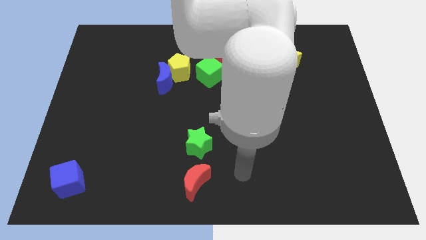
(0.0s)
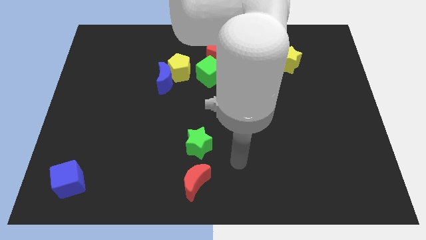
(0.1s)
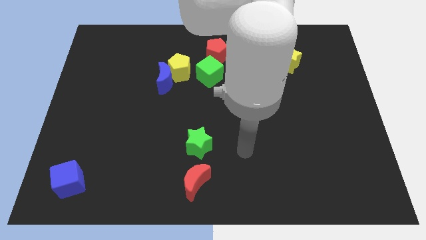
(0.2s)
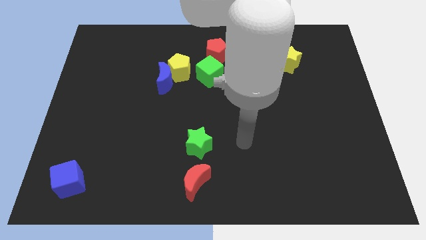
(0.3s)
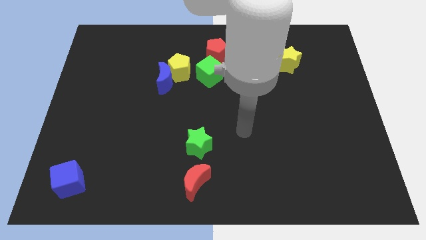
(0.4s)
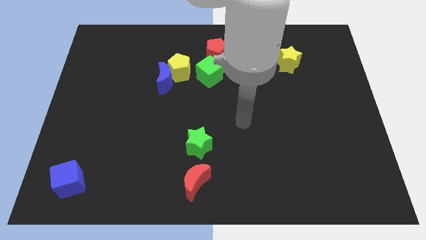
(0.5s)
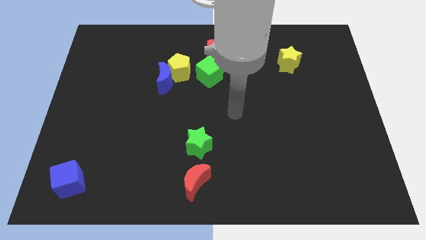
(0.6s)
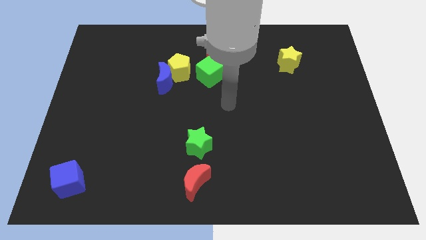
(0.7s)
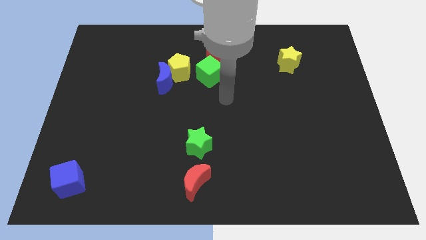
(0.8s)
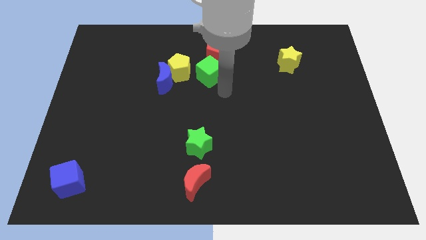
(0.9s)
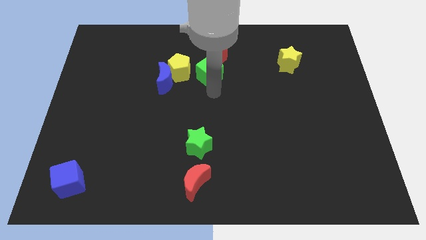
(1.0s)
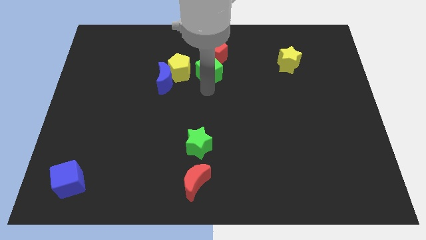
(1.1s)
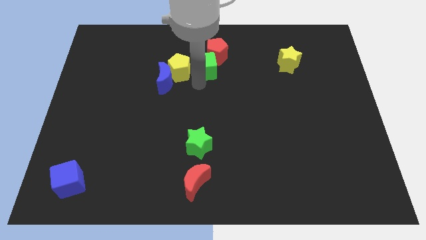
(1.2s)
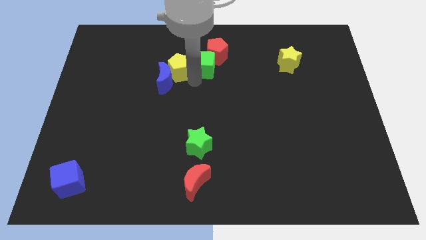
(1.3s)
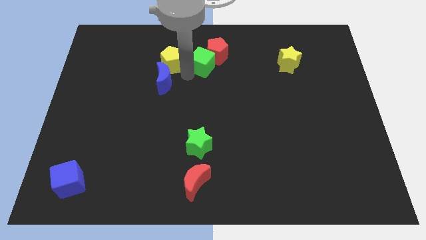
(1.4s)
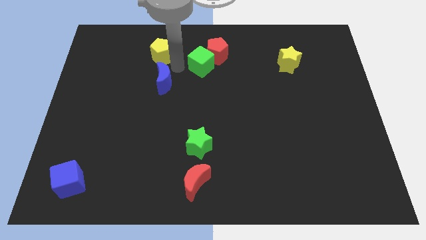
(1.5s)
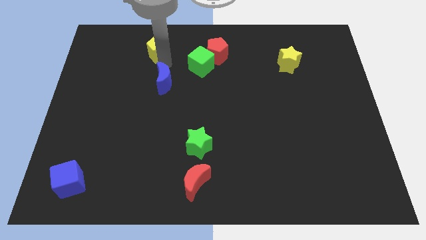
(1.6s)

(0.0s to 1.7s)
separate the blue moon from the yellow pentagon

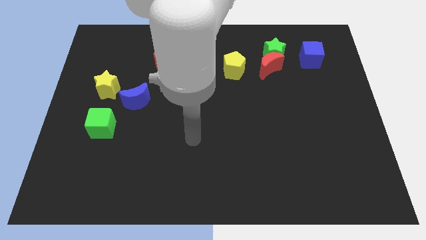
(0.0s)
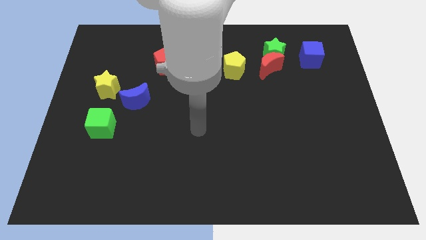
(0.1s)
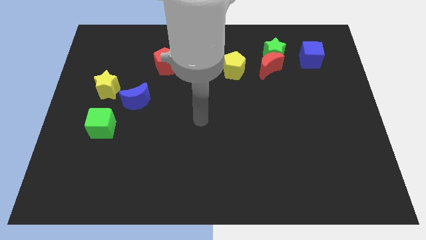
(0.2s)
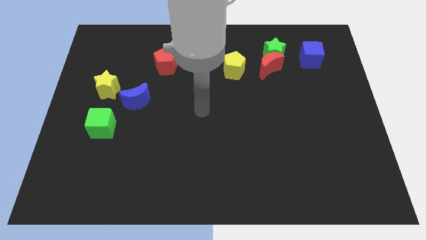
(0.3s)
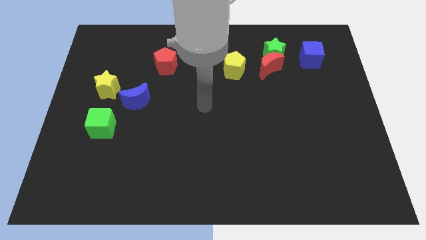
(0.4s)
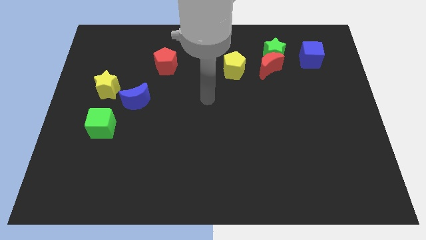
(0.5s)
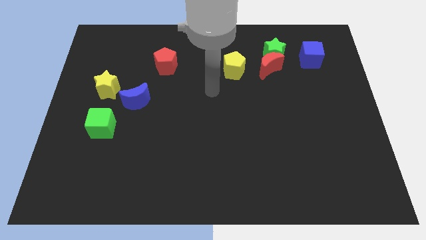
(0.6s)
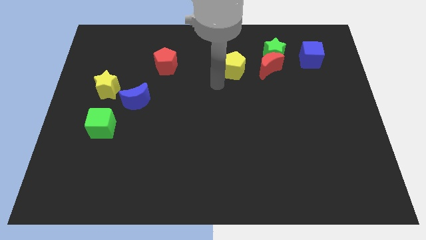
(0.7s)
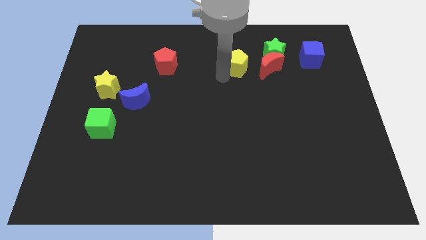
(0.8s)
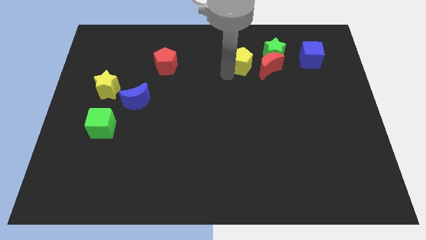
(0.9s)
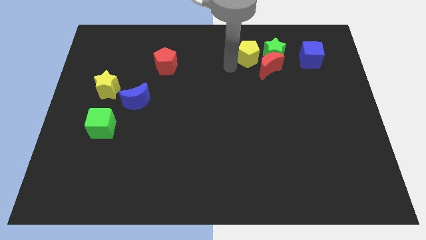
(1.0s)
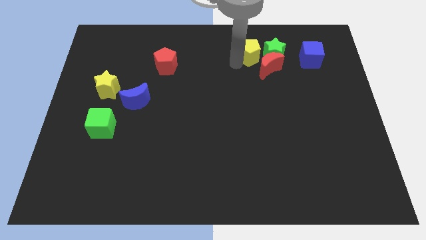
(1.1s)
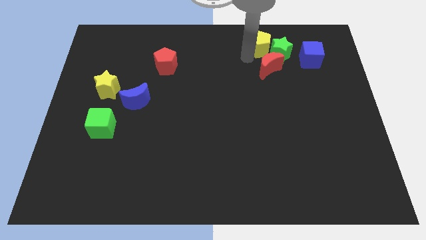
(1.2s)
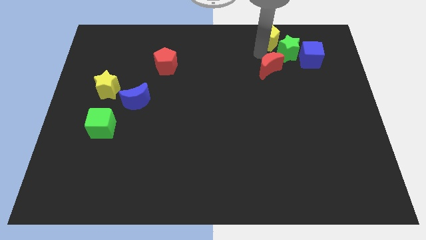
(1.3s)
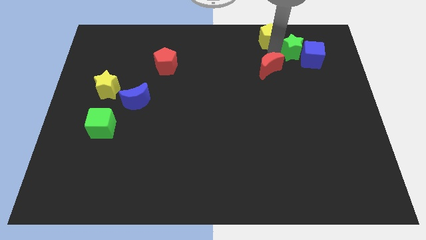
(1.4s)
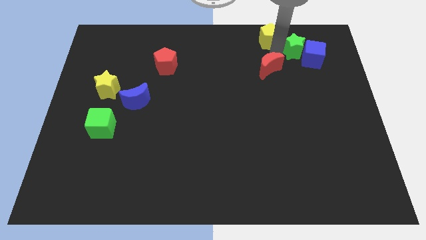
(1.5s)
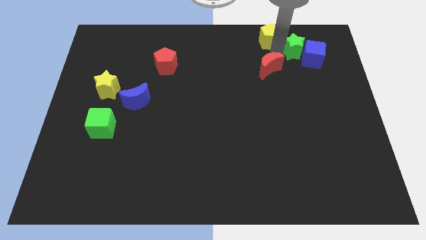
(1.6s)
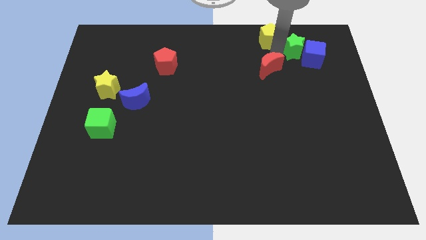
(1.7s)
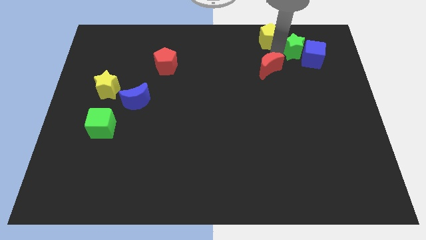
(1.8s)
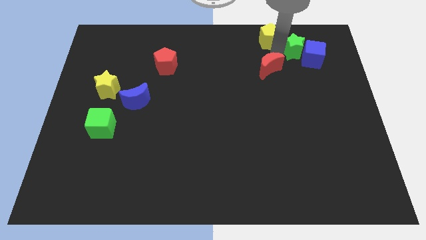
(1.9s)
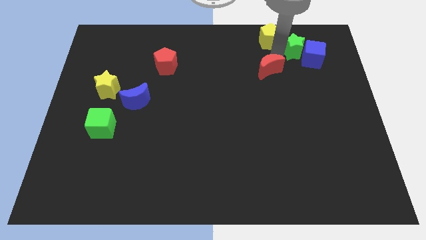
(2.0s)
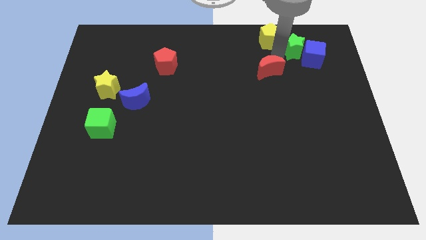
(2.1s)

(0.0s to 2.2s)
separate the red moon from the green star and yellow pentagon

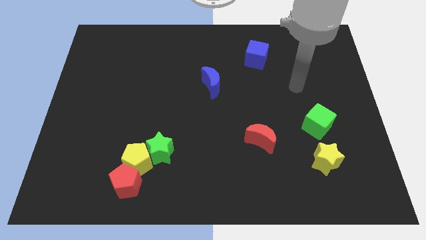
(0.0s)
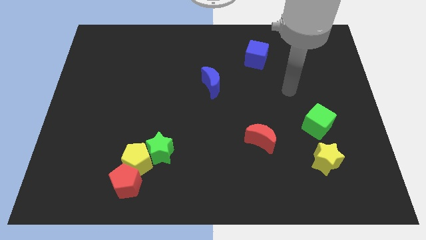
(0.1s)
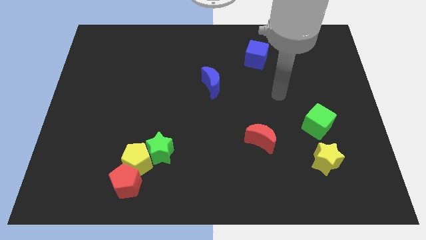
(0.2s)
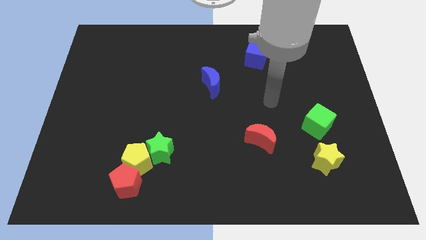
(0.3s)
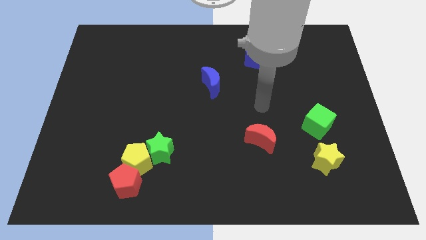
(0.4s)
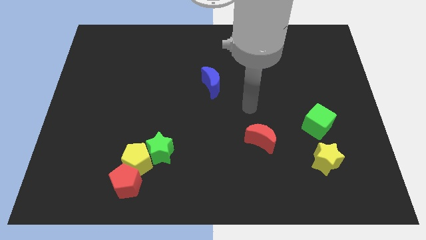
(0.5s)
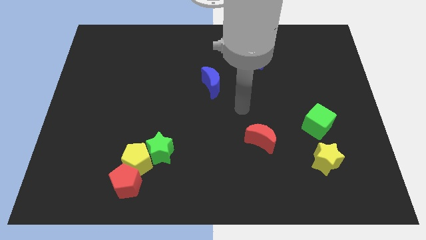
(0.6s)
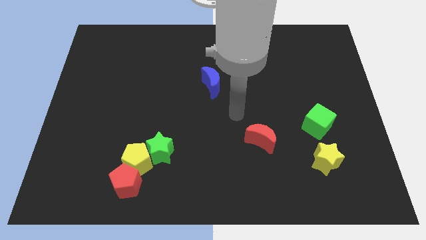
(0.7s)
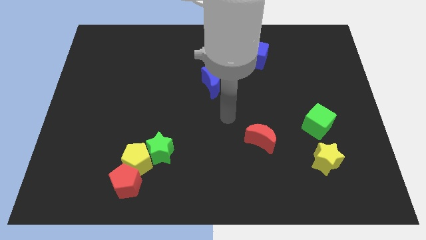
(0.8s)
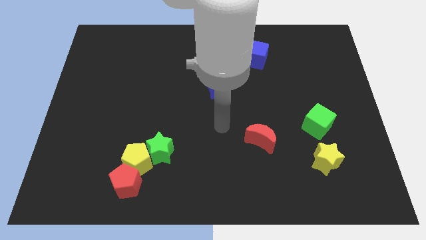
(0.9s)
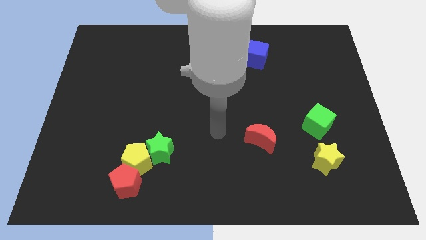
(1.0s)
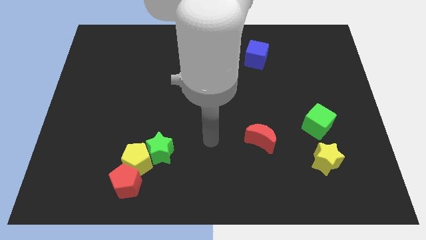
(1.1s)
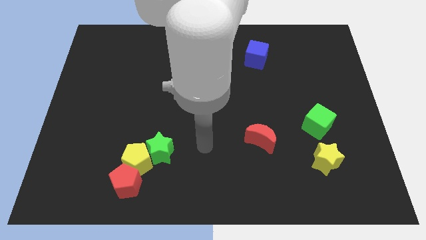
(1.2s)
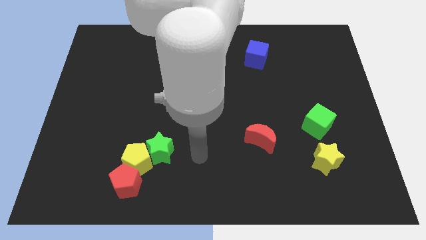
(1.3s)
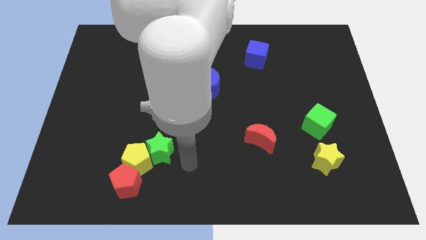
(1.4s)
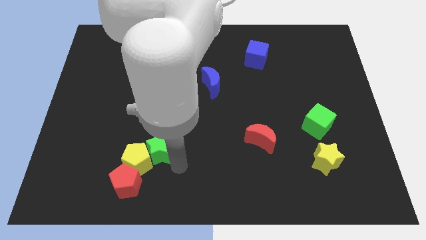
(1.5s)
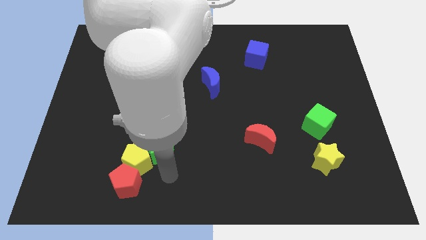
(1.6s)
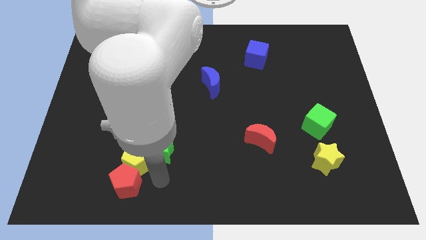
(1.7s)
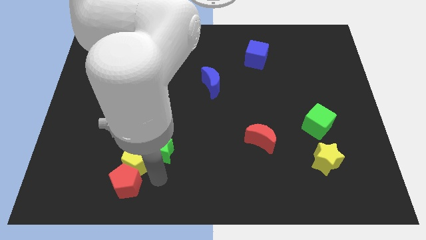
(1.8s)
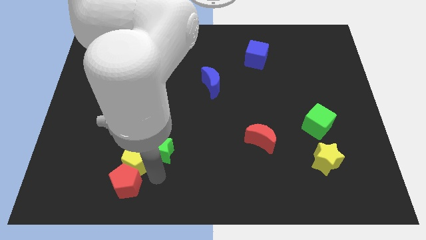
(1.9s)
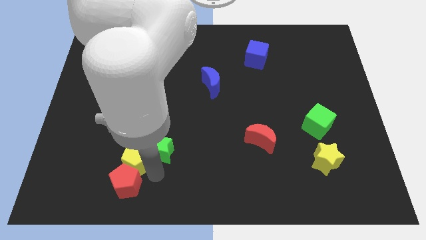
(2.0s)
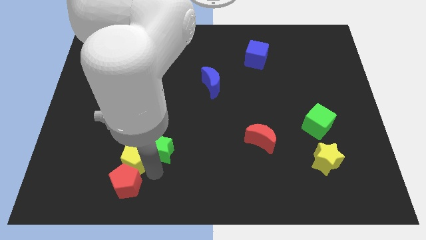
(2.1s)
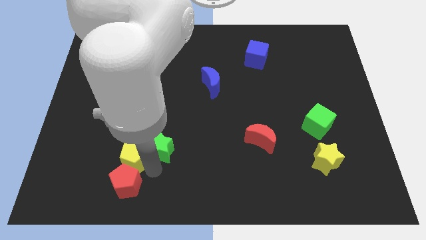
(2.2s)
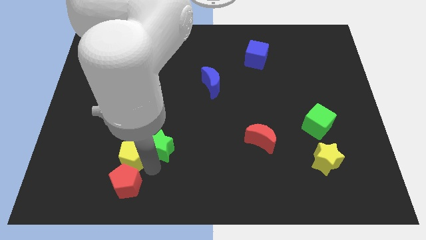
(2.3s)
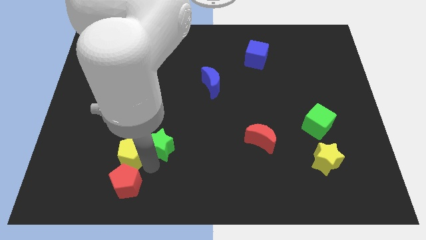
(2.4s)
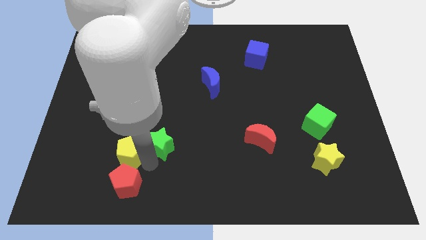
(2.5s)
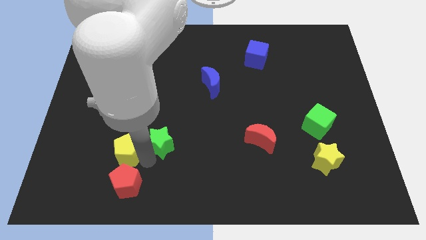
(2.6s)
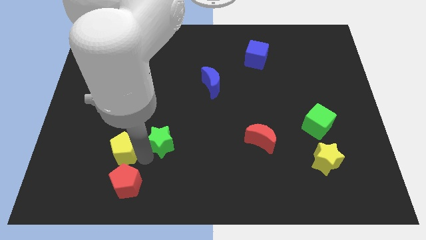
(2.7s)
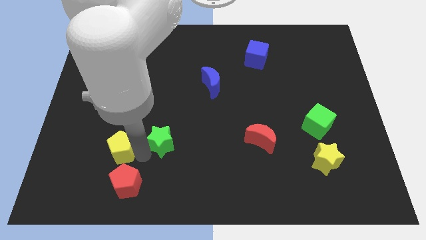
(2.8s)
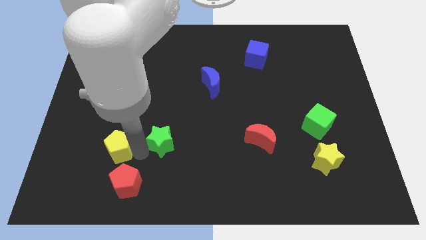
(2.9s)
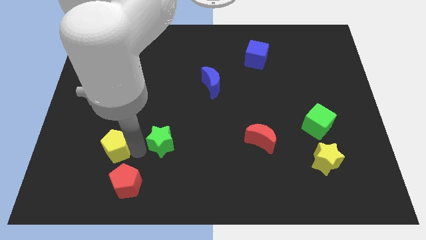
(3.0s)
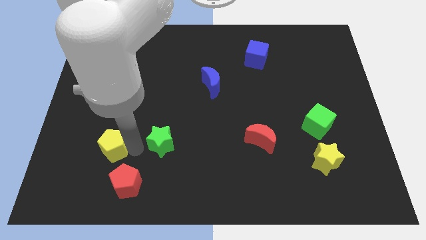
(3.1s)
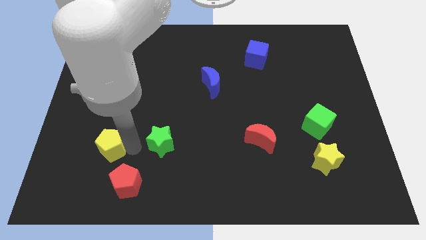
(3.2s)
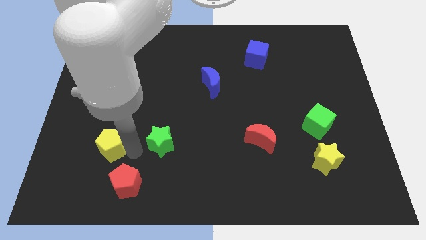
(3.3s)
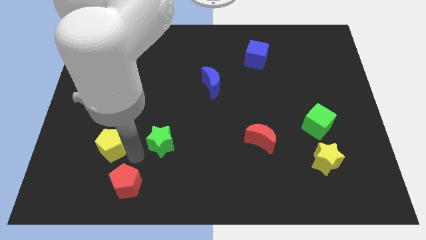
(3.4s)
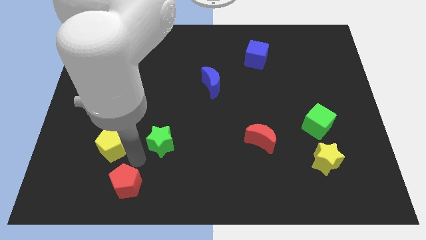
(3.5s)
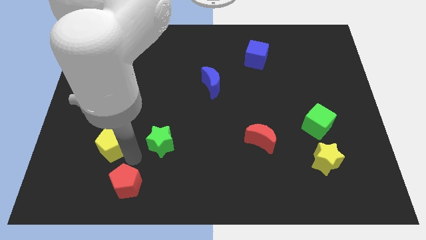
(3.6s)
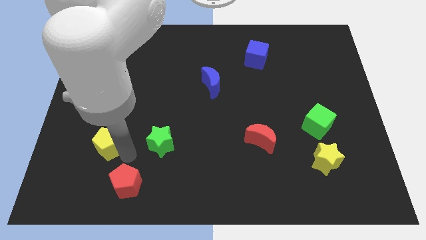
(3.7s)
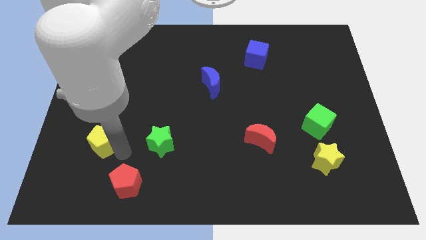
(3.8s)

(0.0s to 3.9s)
separate the yellow pentagon from the green star and red pentagon

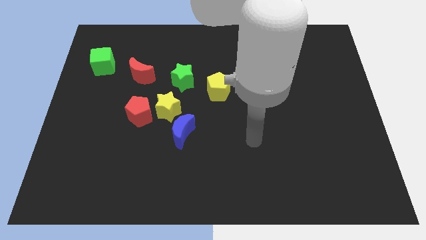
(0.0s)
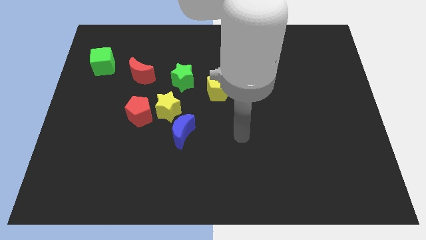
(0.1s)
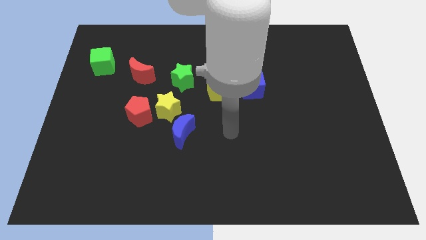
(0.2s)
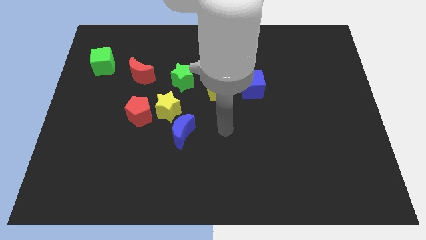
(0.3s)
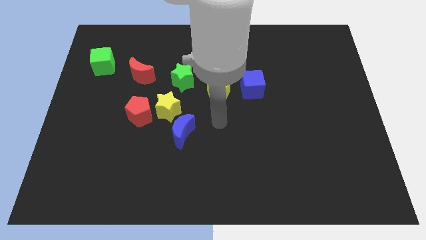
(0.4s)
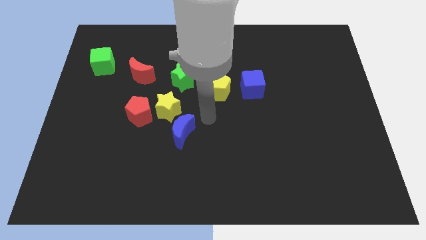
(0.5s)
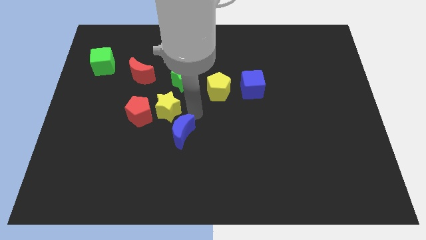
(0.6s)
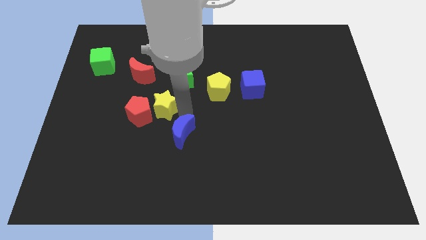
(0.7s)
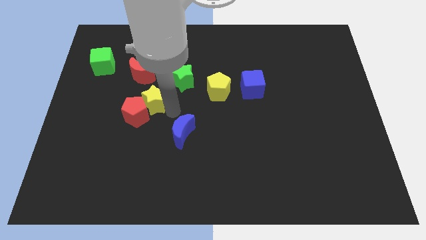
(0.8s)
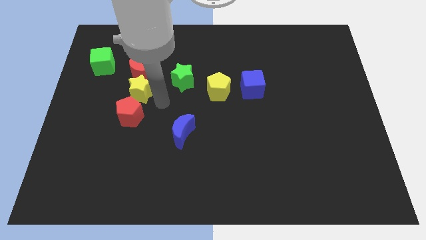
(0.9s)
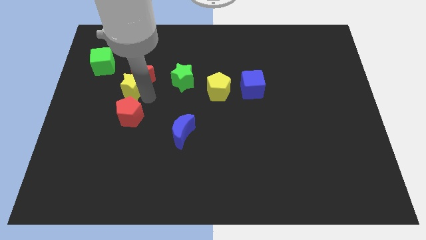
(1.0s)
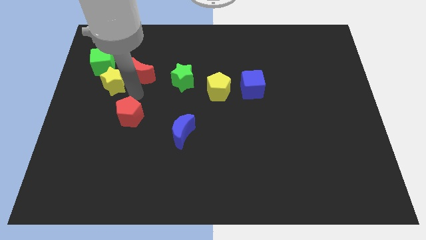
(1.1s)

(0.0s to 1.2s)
move the red pentagon away from the yellow star

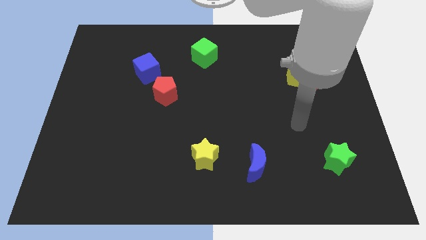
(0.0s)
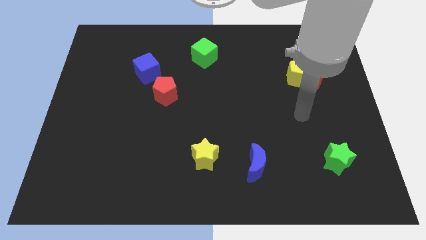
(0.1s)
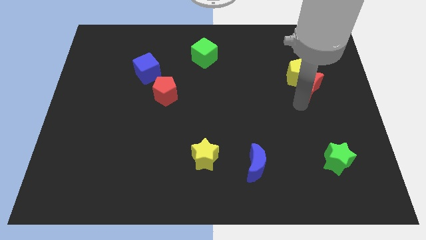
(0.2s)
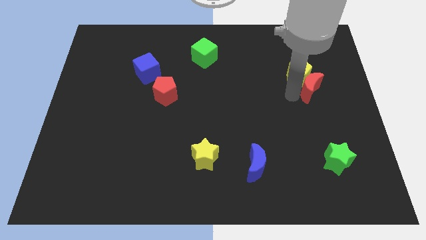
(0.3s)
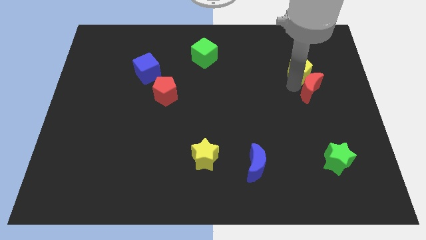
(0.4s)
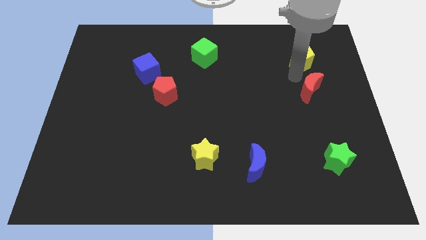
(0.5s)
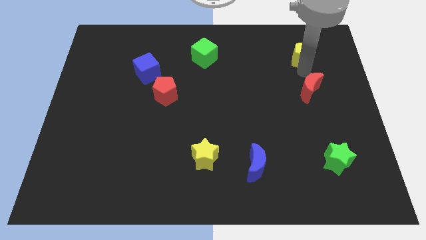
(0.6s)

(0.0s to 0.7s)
move the red moon away from the yellow pentagon
